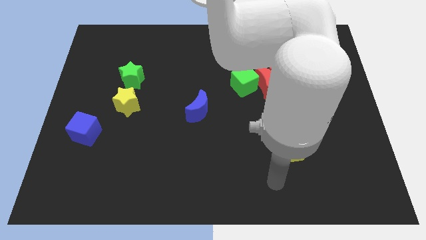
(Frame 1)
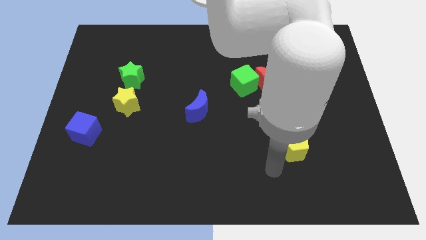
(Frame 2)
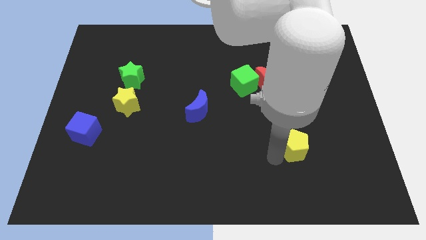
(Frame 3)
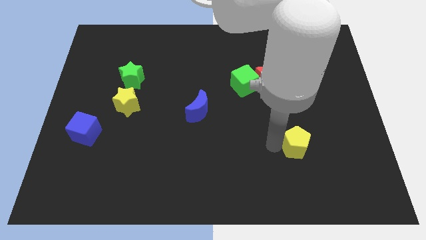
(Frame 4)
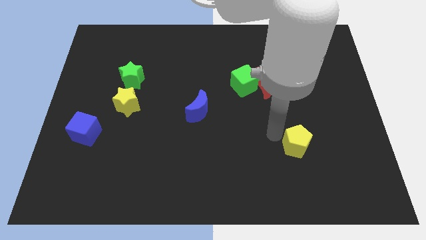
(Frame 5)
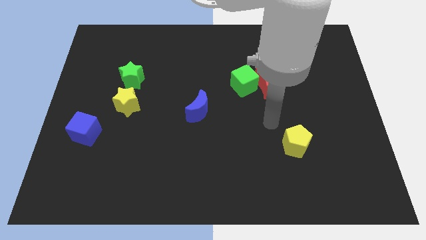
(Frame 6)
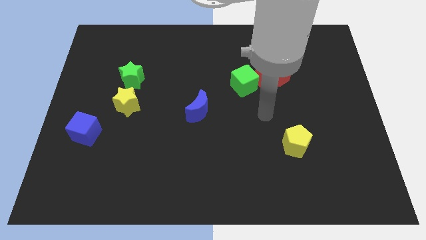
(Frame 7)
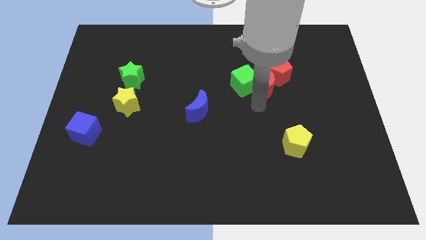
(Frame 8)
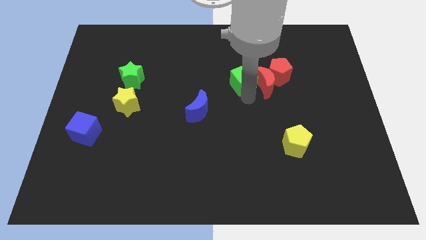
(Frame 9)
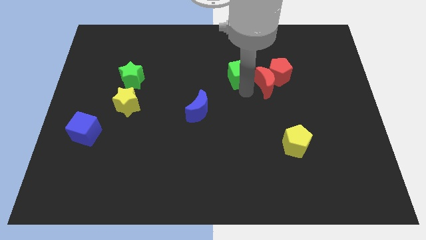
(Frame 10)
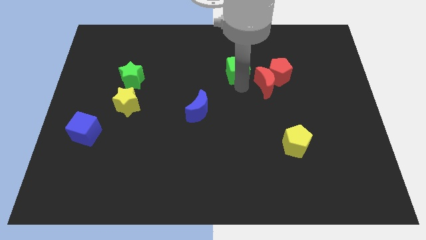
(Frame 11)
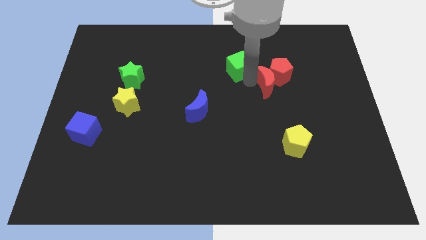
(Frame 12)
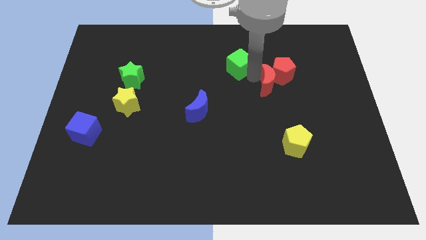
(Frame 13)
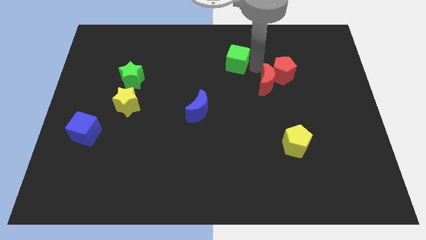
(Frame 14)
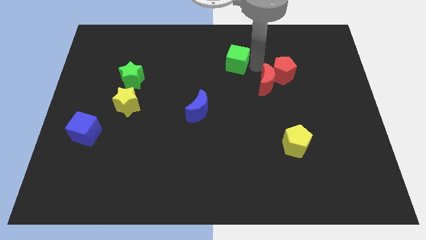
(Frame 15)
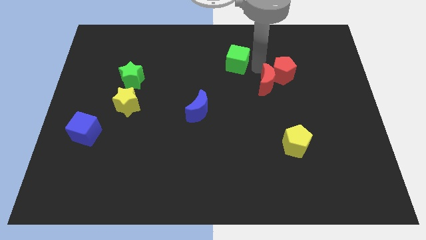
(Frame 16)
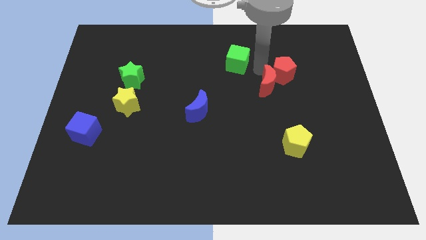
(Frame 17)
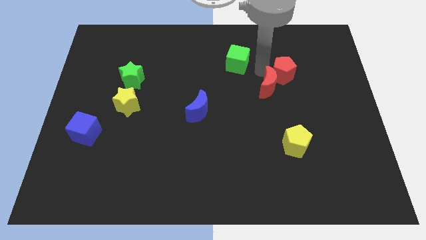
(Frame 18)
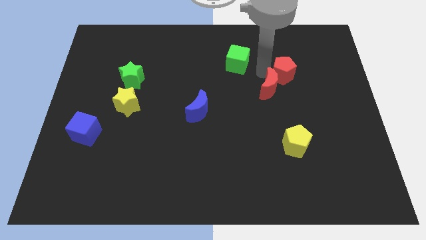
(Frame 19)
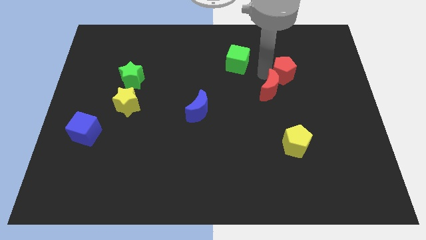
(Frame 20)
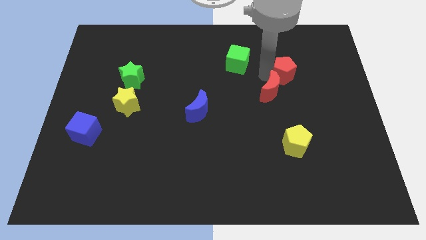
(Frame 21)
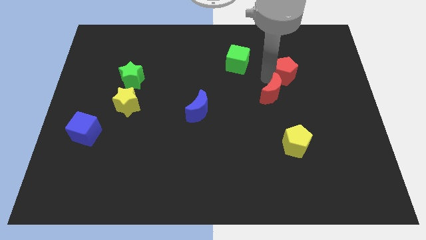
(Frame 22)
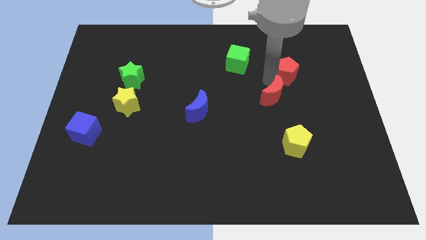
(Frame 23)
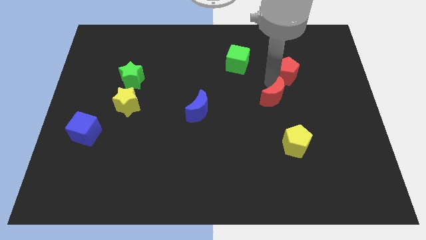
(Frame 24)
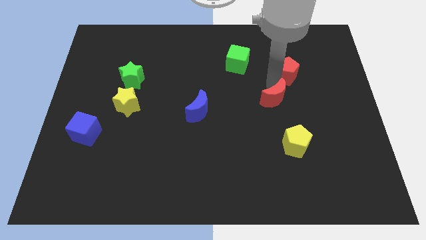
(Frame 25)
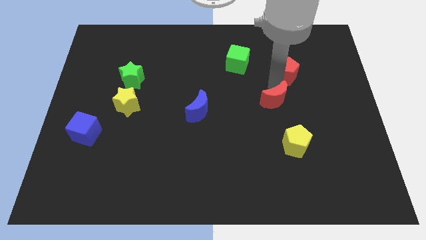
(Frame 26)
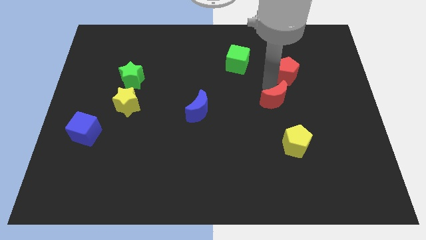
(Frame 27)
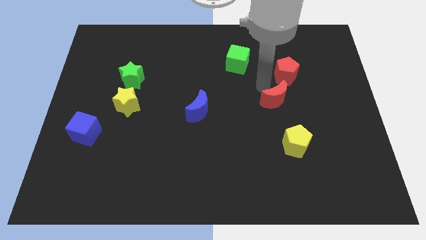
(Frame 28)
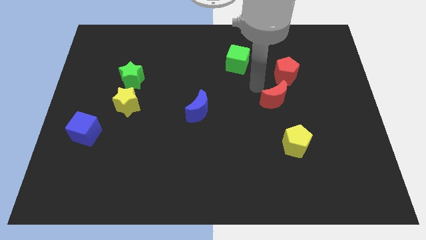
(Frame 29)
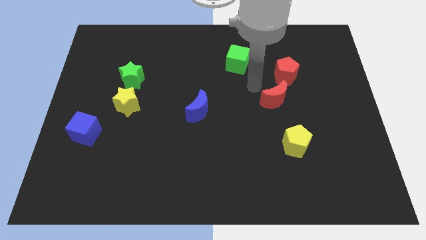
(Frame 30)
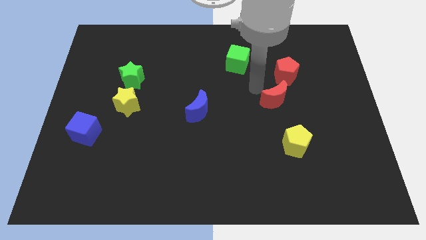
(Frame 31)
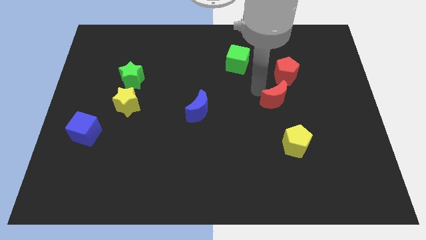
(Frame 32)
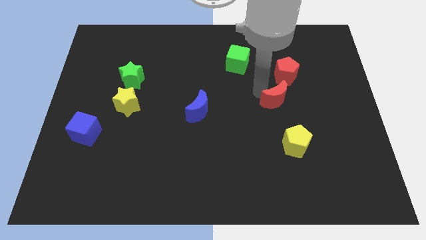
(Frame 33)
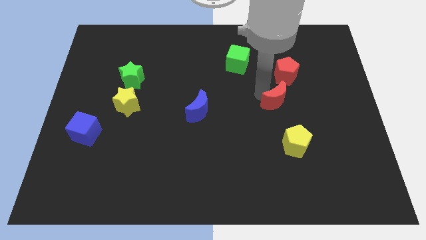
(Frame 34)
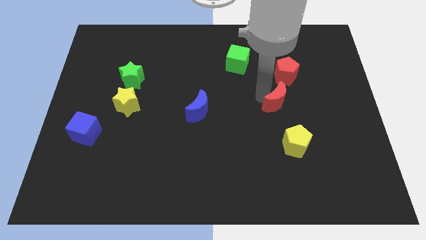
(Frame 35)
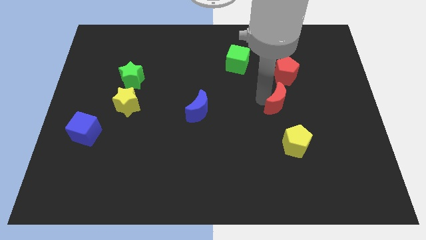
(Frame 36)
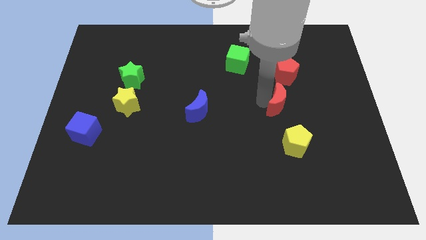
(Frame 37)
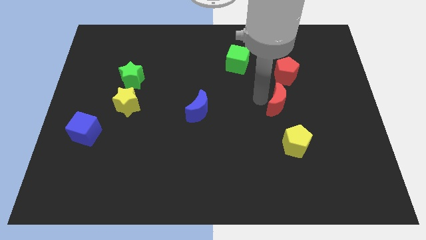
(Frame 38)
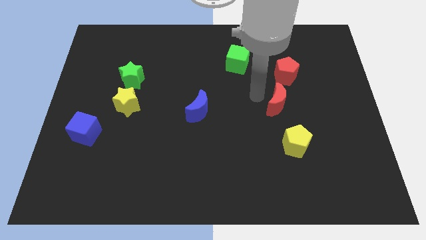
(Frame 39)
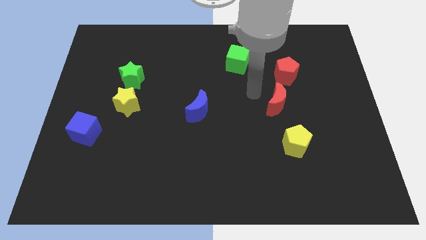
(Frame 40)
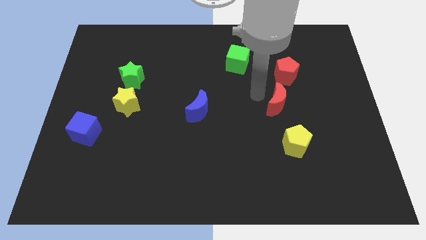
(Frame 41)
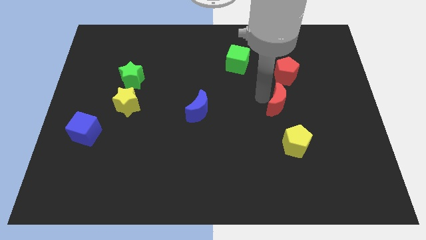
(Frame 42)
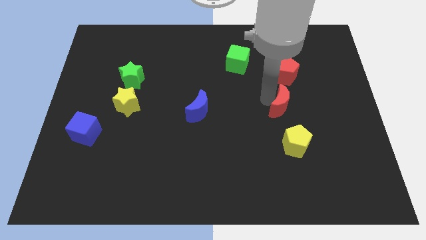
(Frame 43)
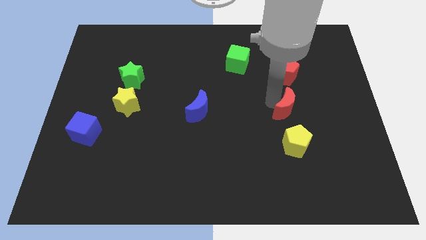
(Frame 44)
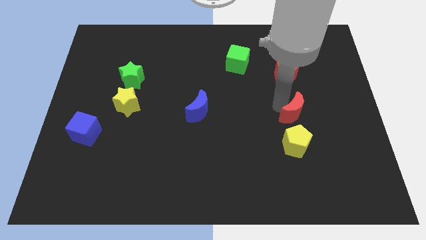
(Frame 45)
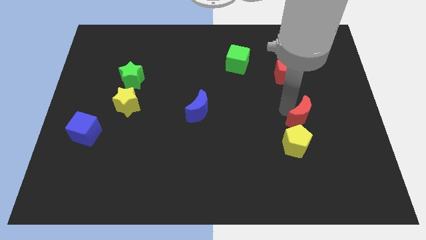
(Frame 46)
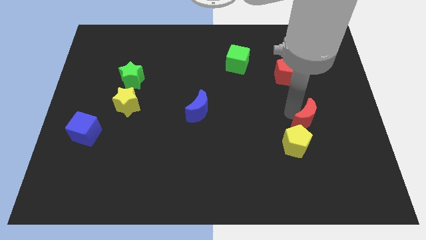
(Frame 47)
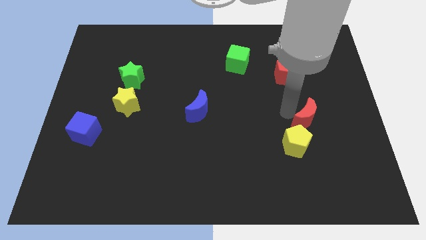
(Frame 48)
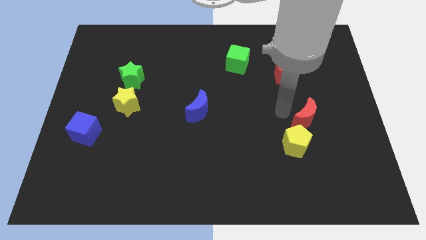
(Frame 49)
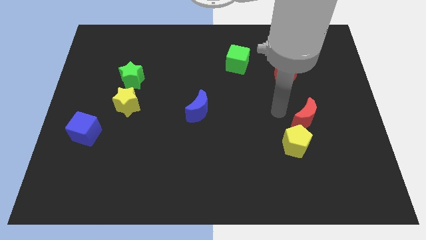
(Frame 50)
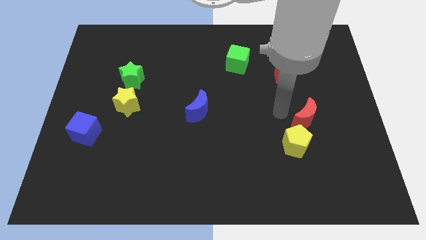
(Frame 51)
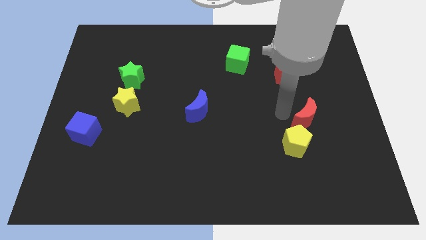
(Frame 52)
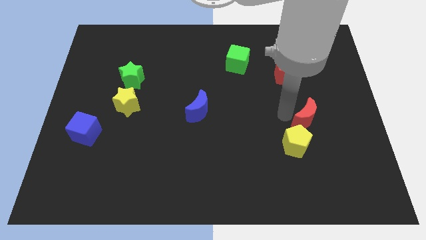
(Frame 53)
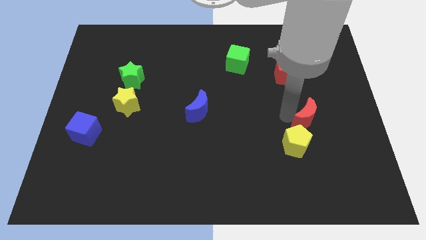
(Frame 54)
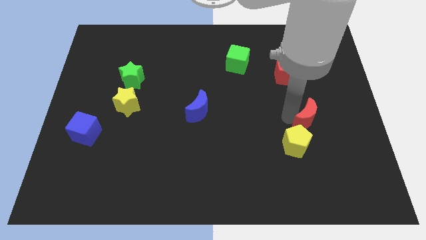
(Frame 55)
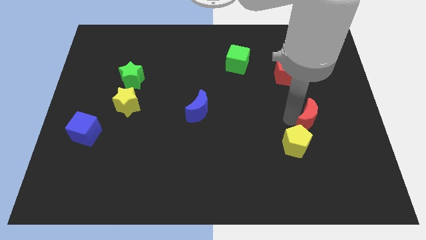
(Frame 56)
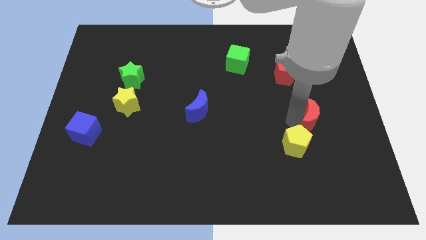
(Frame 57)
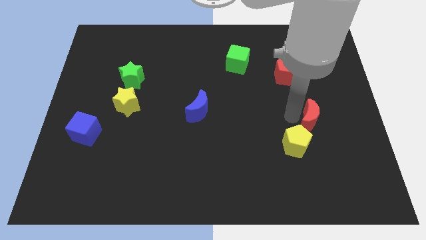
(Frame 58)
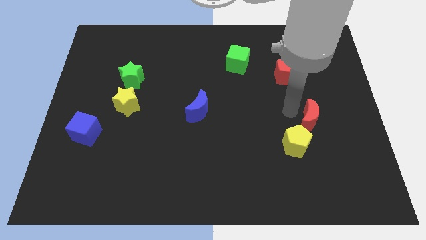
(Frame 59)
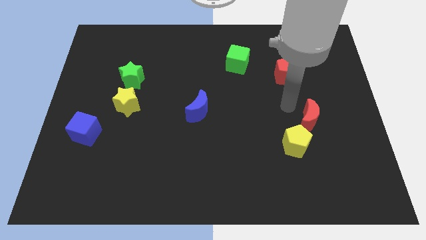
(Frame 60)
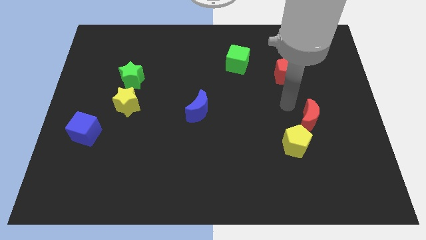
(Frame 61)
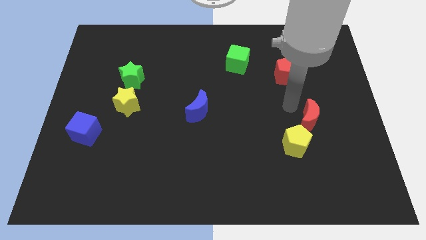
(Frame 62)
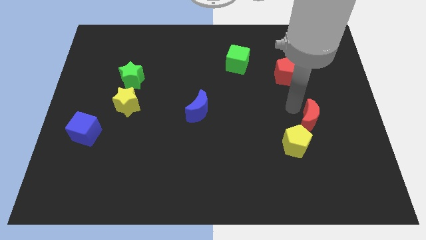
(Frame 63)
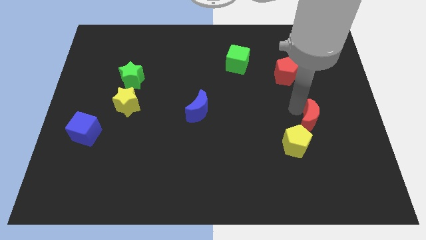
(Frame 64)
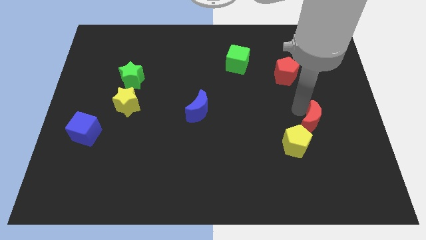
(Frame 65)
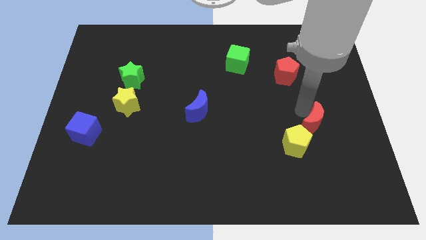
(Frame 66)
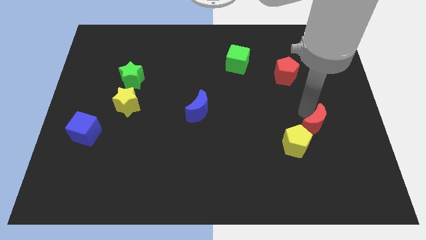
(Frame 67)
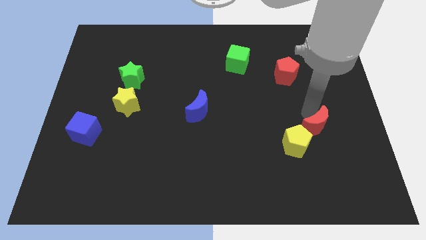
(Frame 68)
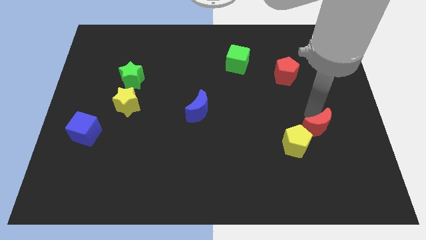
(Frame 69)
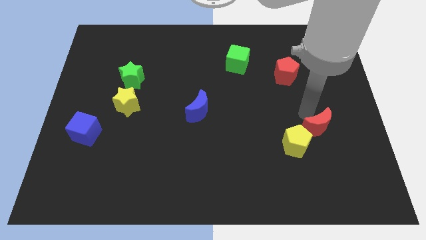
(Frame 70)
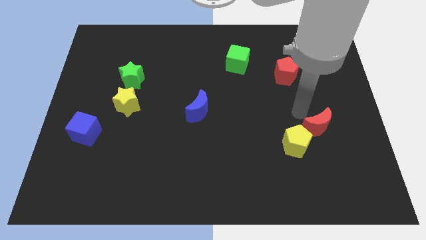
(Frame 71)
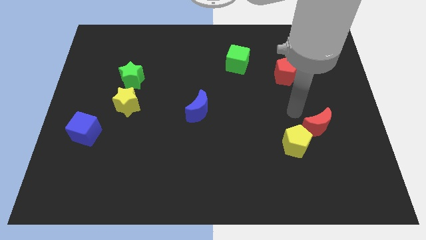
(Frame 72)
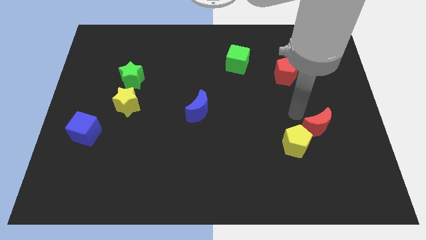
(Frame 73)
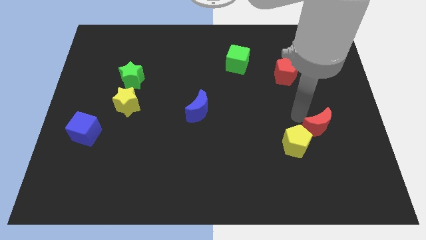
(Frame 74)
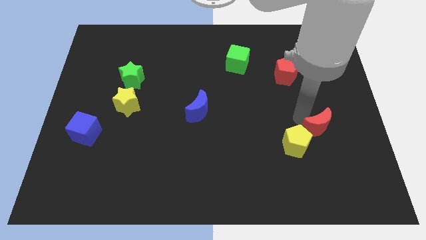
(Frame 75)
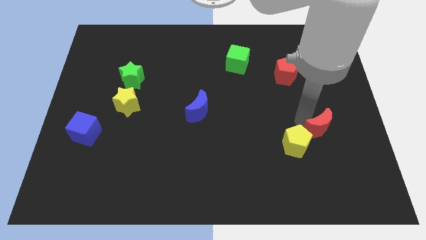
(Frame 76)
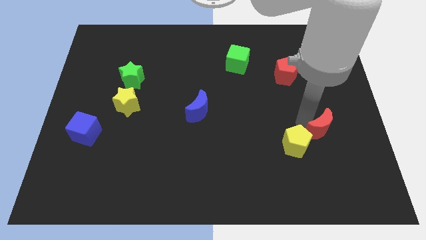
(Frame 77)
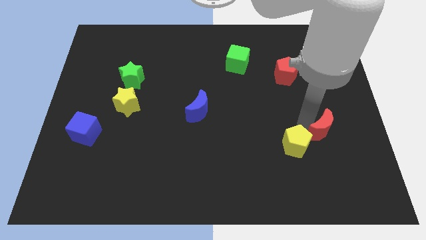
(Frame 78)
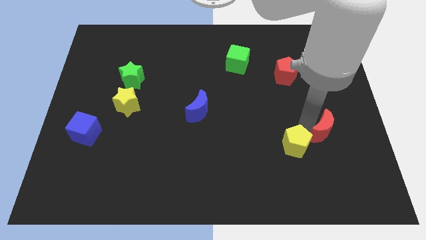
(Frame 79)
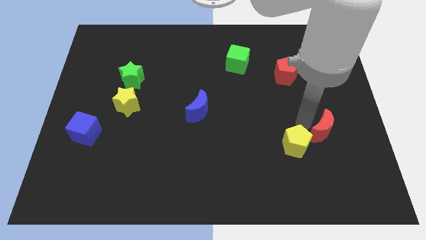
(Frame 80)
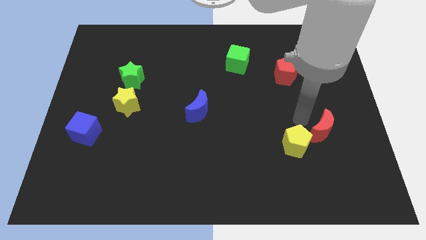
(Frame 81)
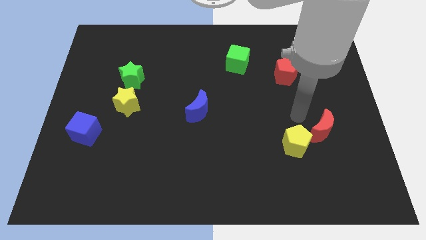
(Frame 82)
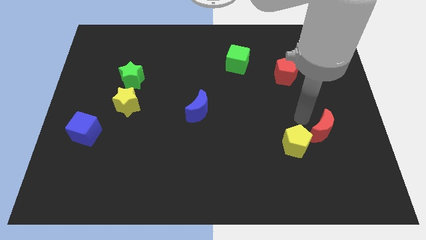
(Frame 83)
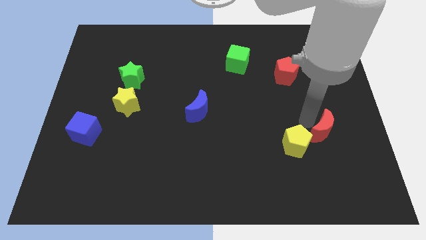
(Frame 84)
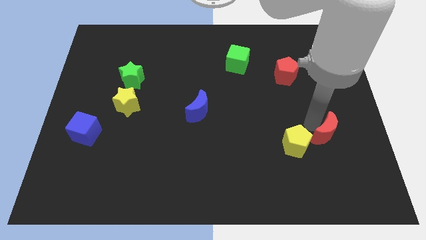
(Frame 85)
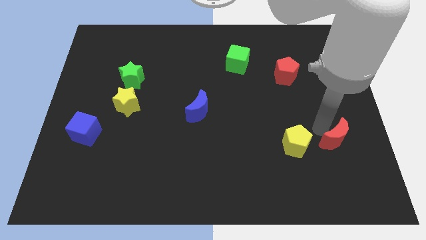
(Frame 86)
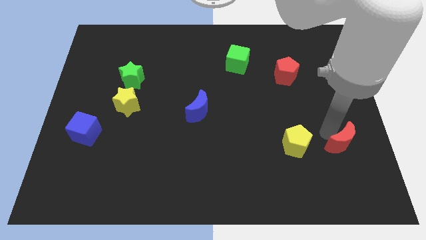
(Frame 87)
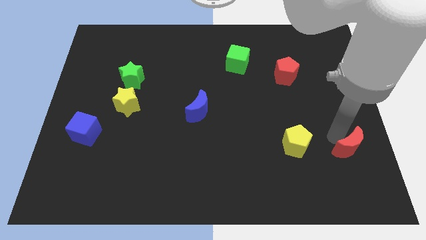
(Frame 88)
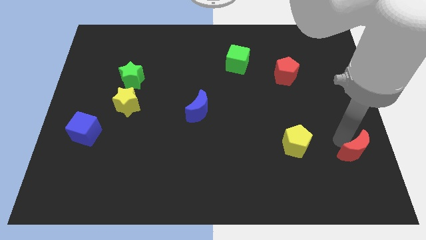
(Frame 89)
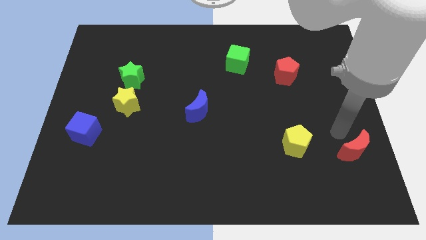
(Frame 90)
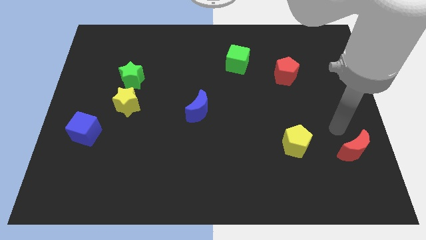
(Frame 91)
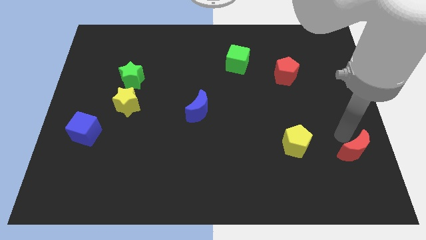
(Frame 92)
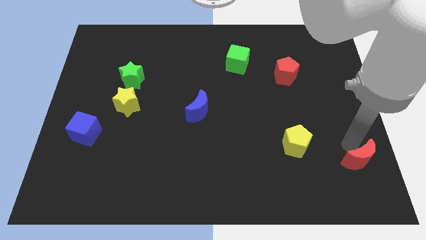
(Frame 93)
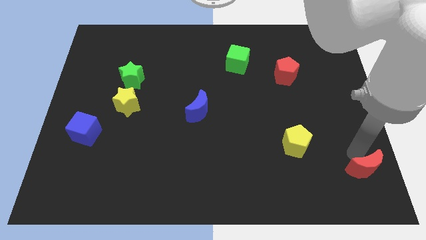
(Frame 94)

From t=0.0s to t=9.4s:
slide the red moon to the bottom right of the board
